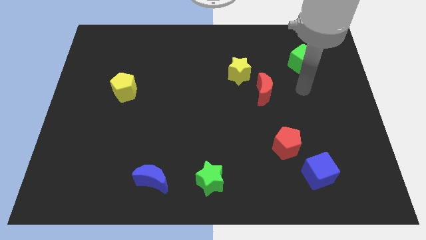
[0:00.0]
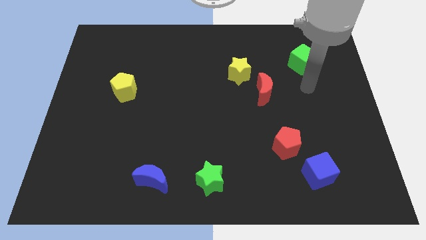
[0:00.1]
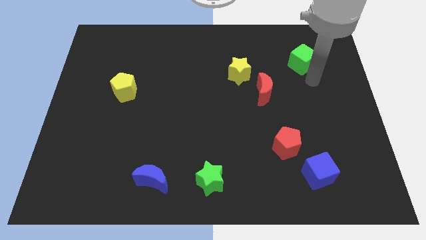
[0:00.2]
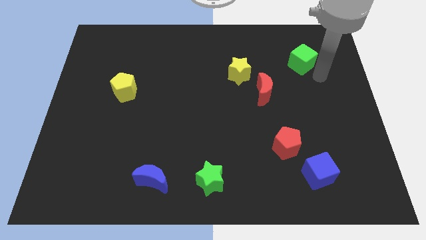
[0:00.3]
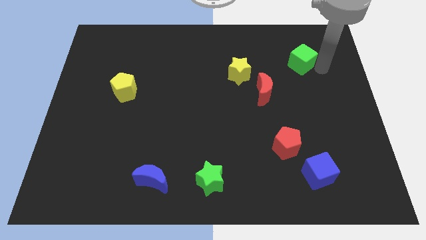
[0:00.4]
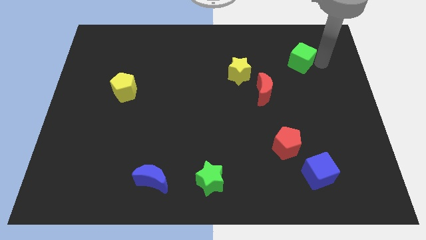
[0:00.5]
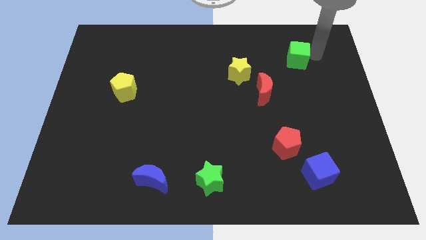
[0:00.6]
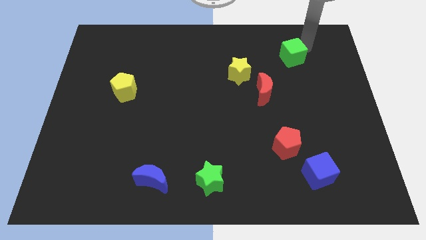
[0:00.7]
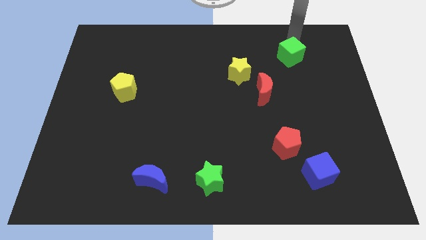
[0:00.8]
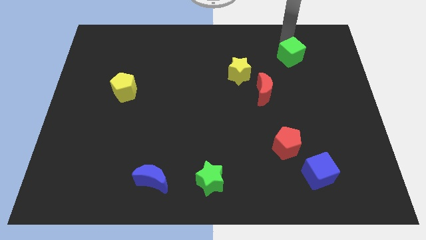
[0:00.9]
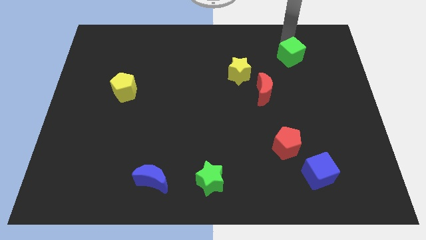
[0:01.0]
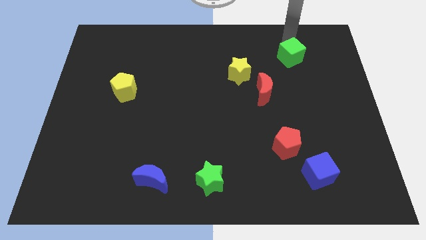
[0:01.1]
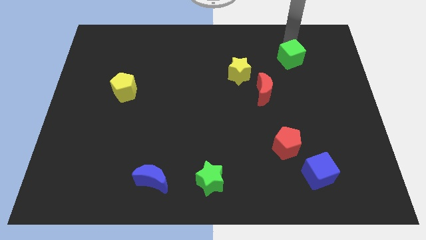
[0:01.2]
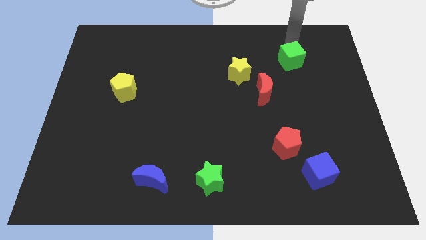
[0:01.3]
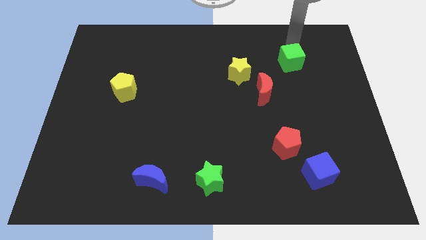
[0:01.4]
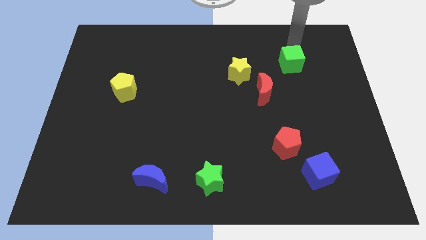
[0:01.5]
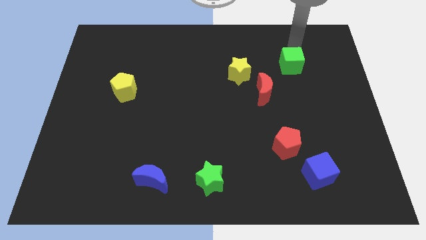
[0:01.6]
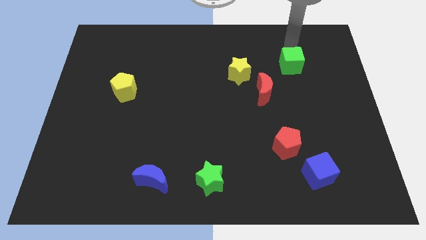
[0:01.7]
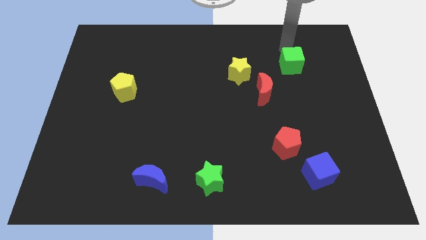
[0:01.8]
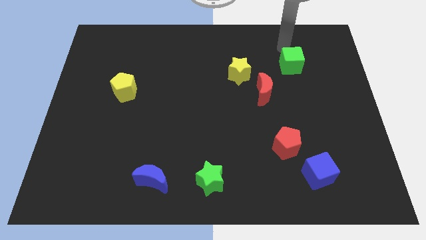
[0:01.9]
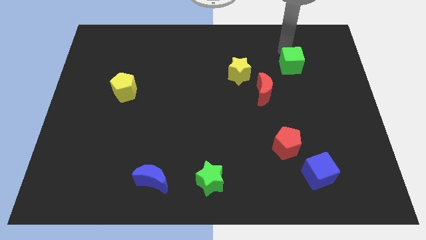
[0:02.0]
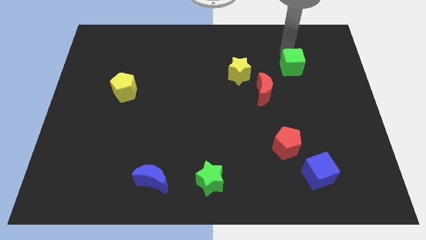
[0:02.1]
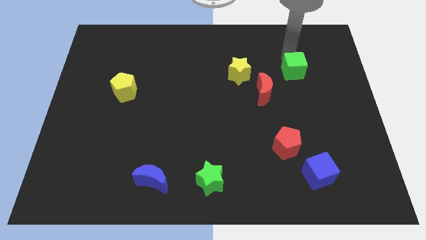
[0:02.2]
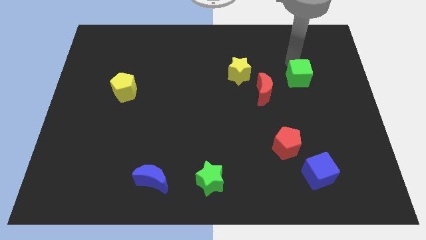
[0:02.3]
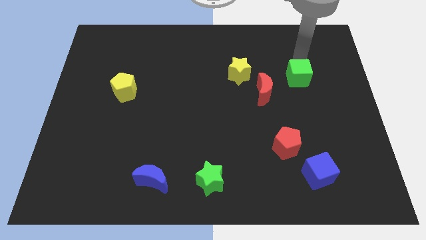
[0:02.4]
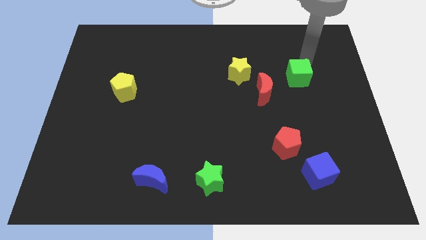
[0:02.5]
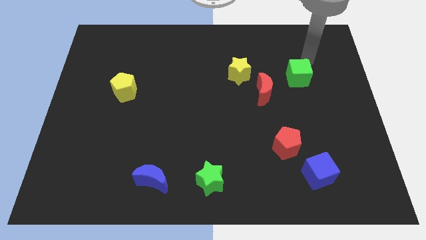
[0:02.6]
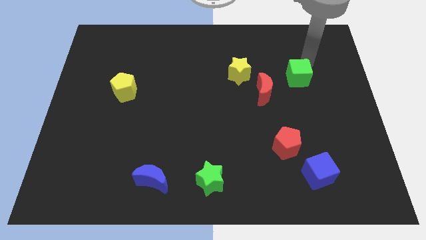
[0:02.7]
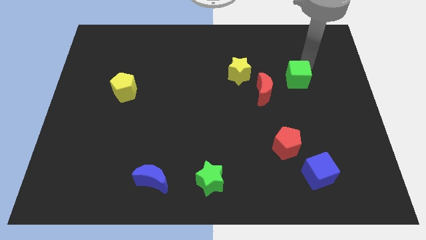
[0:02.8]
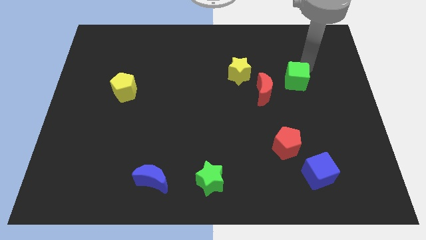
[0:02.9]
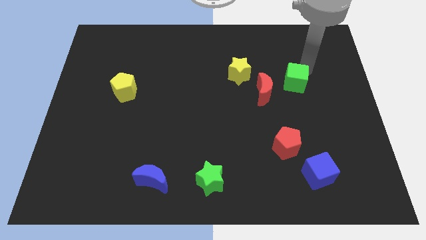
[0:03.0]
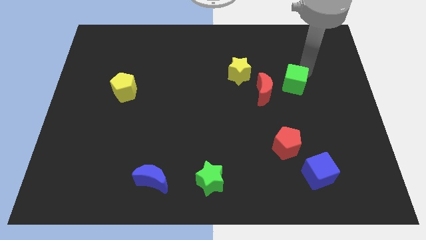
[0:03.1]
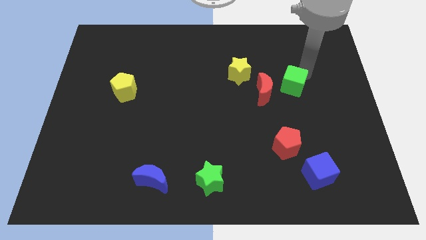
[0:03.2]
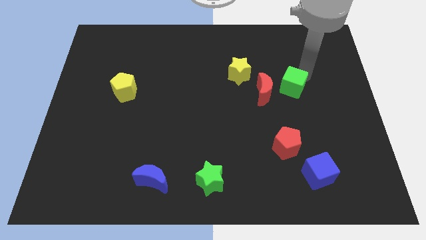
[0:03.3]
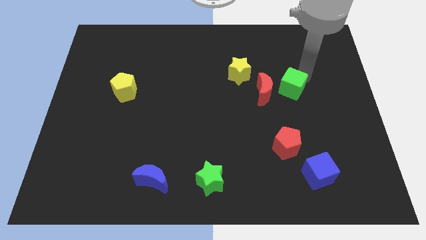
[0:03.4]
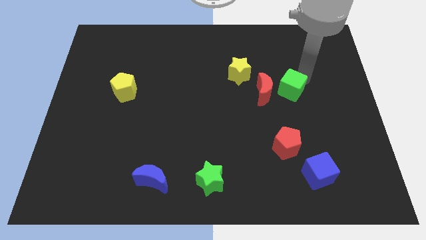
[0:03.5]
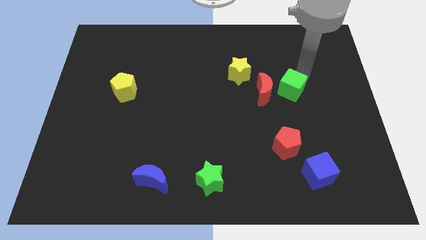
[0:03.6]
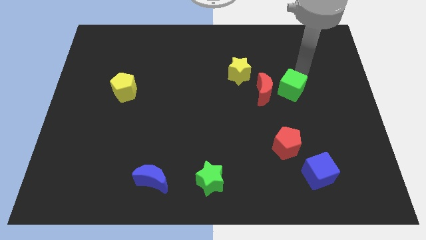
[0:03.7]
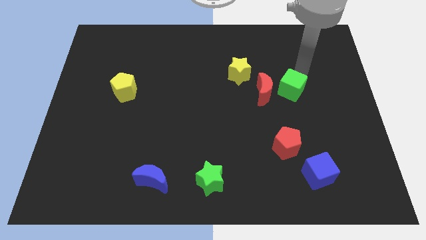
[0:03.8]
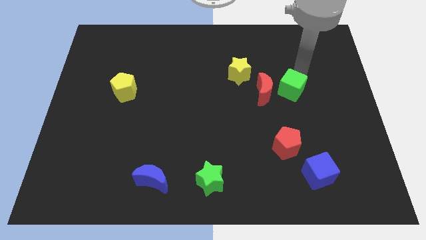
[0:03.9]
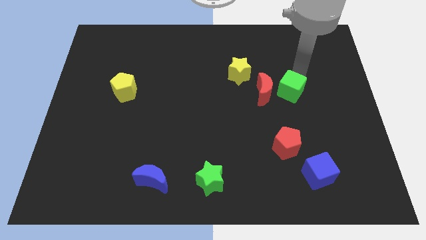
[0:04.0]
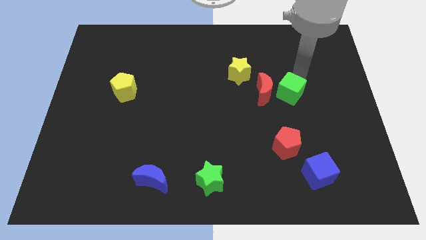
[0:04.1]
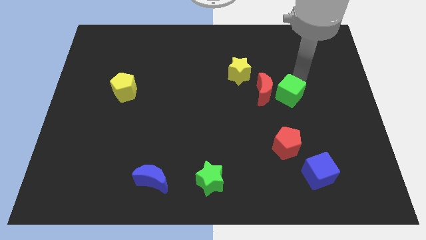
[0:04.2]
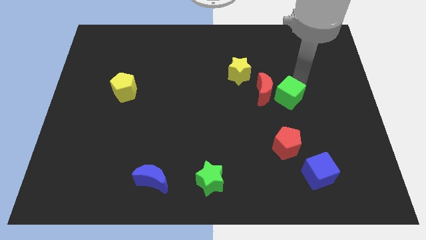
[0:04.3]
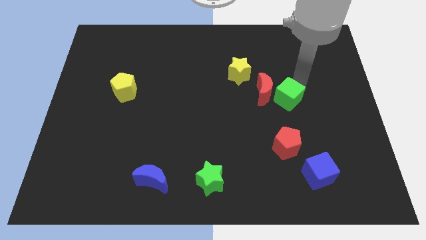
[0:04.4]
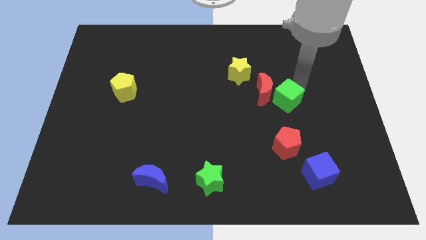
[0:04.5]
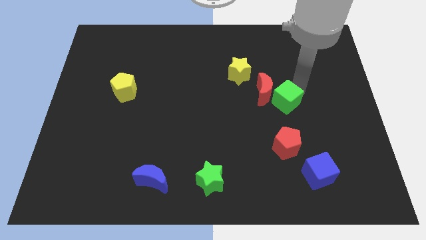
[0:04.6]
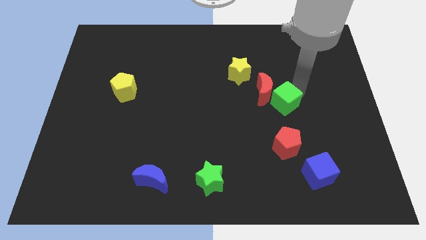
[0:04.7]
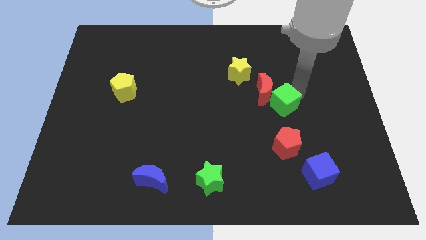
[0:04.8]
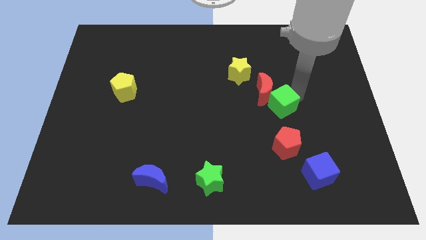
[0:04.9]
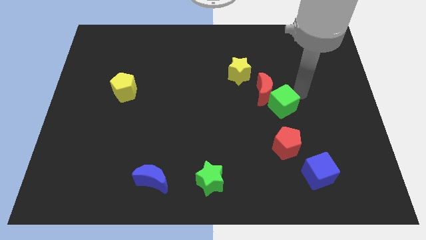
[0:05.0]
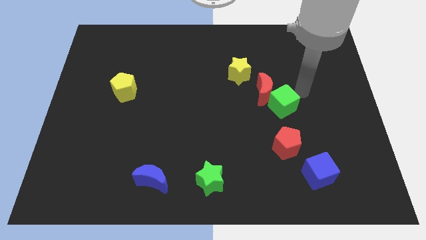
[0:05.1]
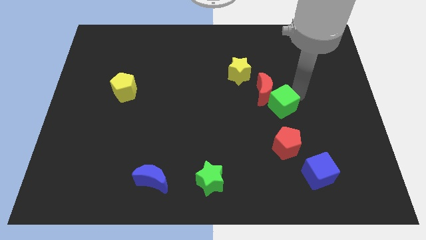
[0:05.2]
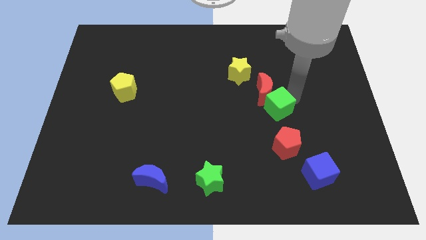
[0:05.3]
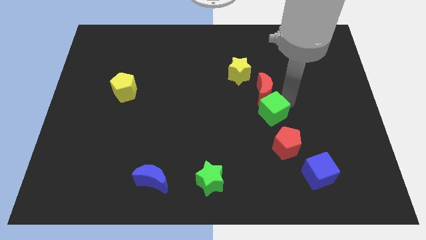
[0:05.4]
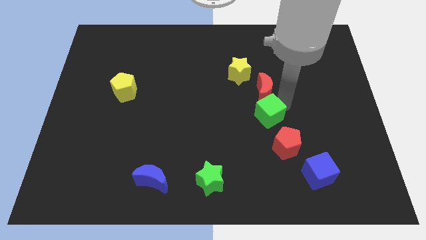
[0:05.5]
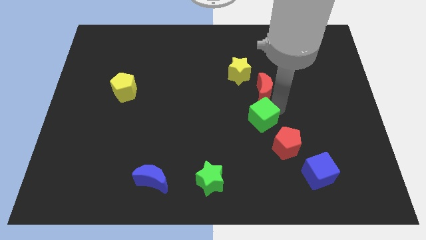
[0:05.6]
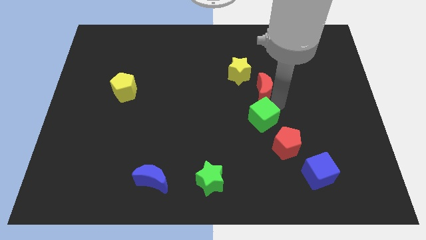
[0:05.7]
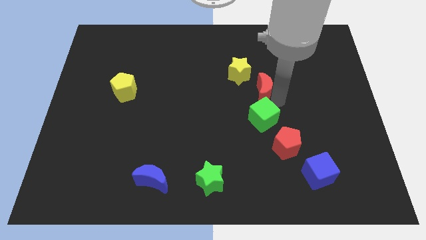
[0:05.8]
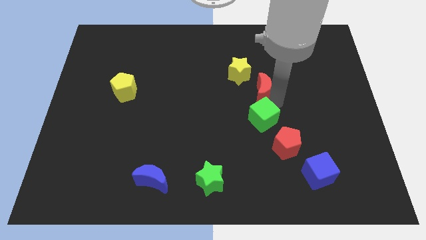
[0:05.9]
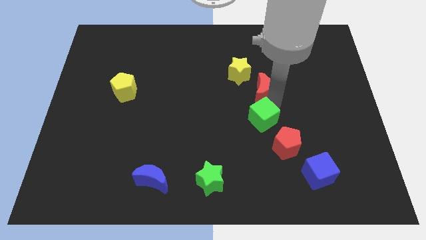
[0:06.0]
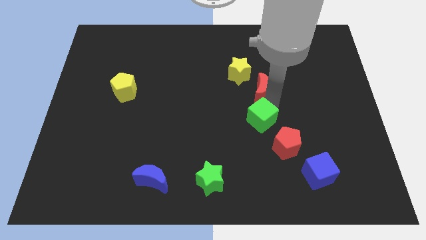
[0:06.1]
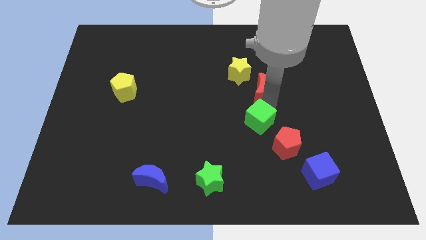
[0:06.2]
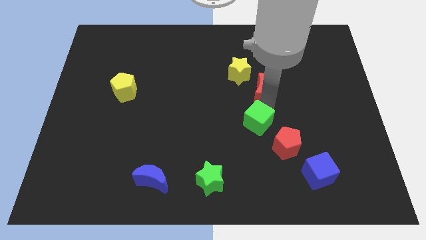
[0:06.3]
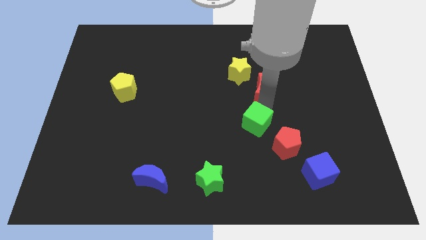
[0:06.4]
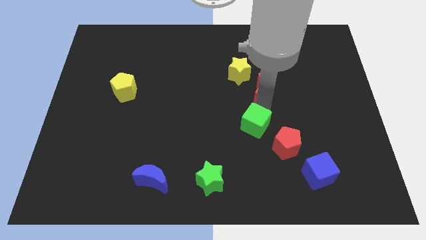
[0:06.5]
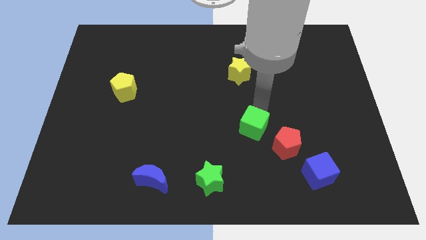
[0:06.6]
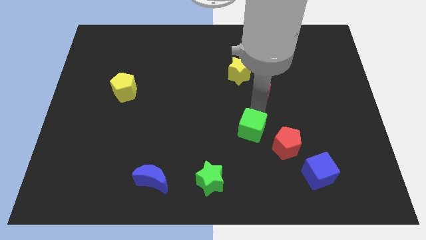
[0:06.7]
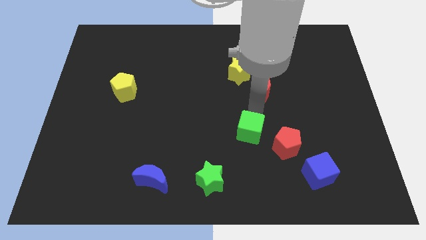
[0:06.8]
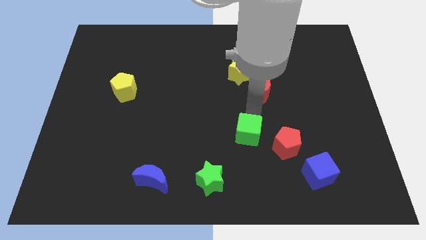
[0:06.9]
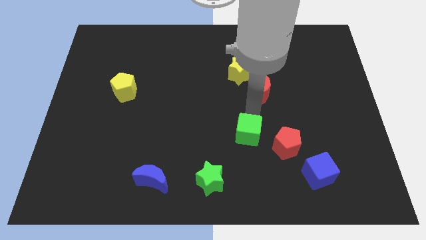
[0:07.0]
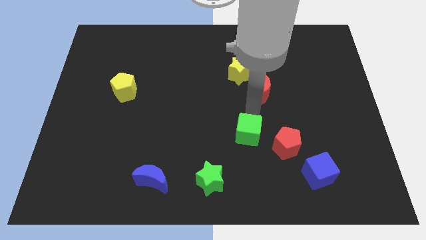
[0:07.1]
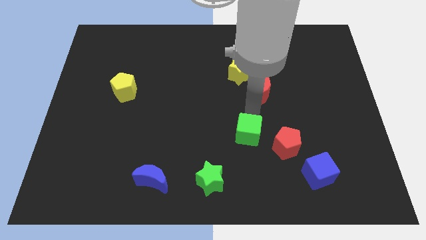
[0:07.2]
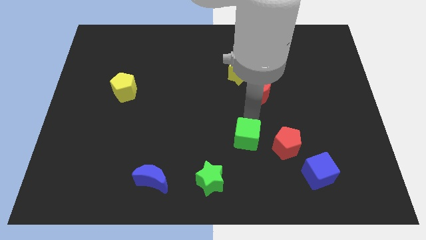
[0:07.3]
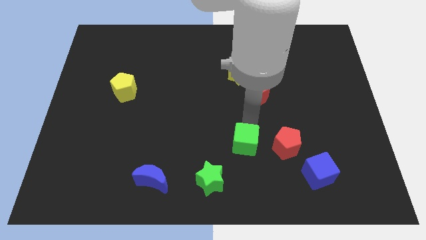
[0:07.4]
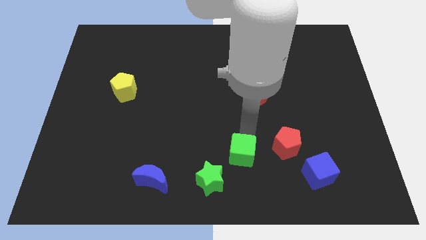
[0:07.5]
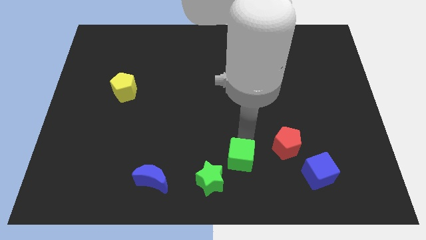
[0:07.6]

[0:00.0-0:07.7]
push the green cube to the bottom side

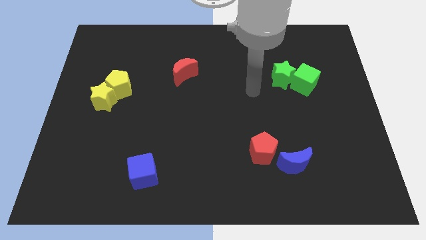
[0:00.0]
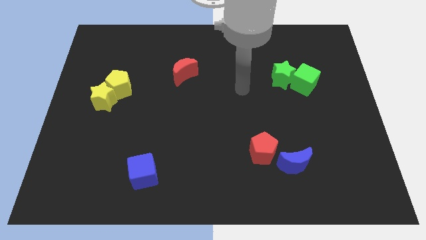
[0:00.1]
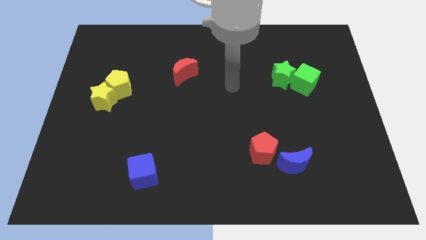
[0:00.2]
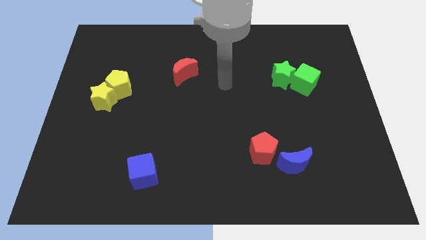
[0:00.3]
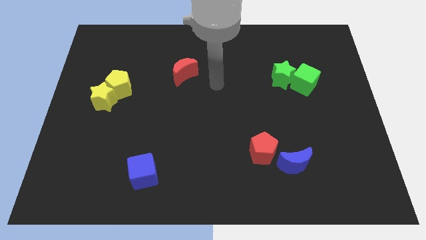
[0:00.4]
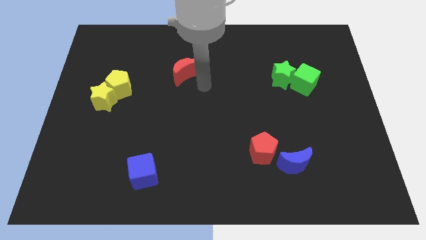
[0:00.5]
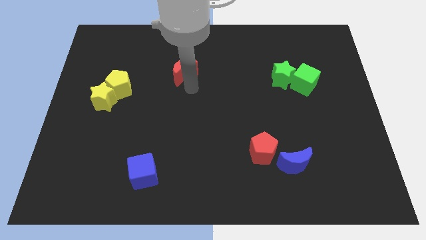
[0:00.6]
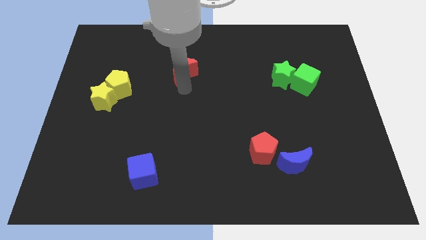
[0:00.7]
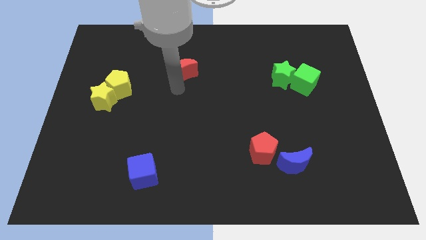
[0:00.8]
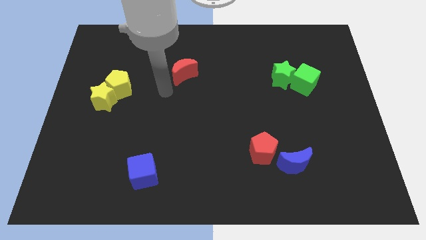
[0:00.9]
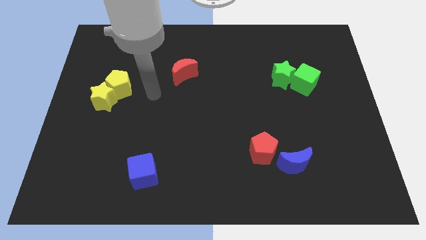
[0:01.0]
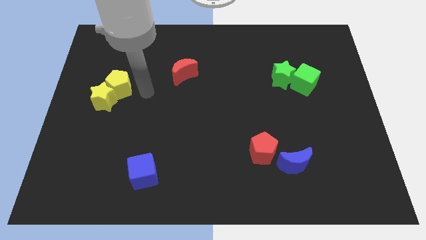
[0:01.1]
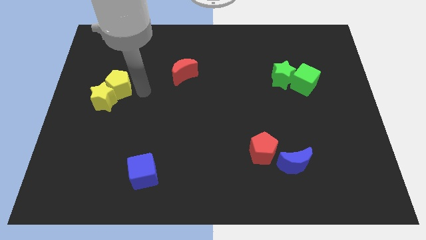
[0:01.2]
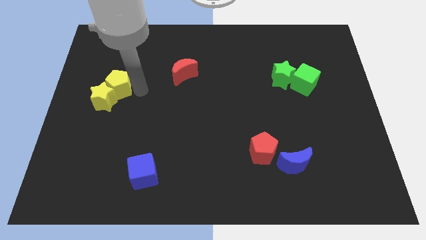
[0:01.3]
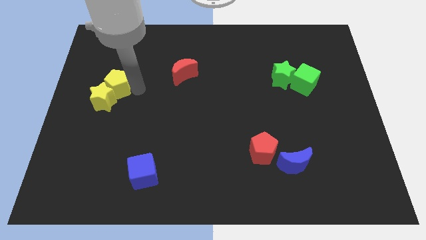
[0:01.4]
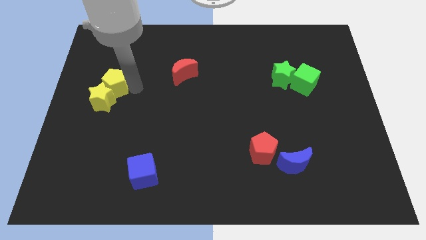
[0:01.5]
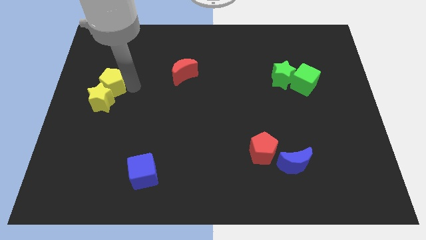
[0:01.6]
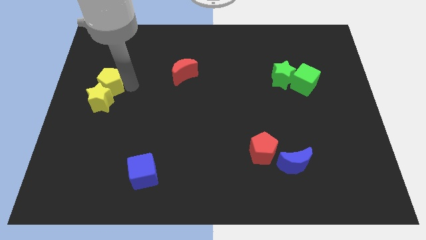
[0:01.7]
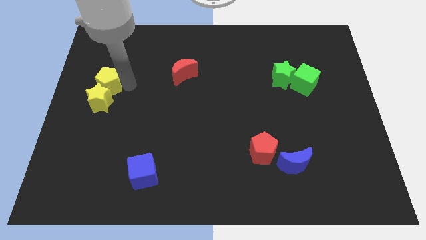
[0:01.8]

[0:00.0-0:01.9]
put the yellow pentagon to the left side
